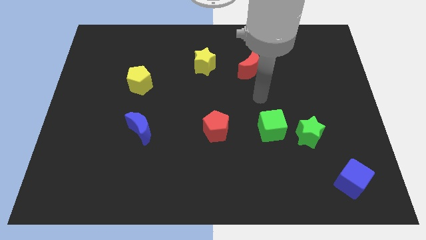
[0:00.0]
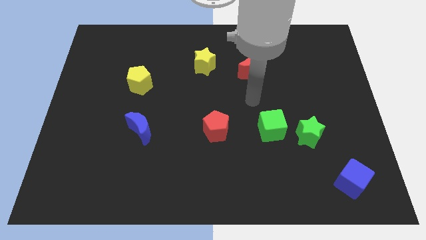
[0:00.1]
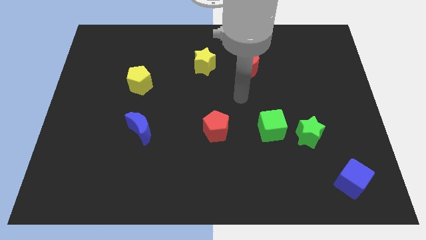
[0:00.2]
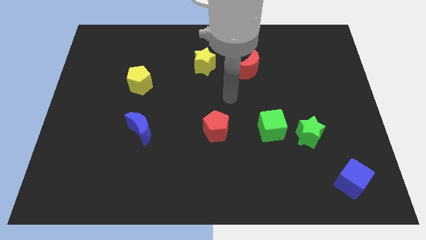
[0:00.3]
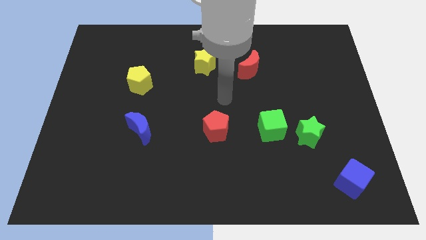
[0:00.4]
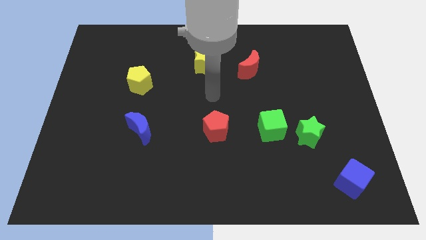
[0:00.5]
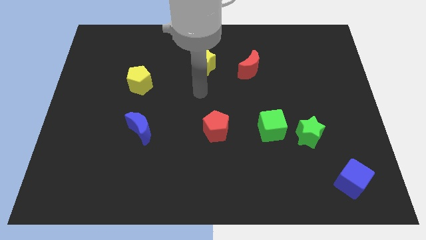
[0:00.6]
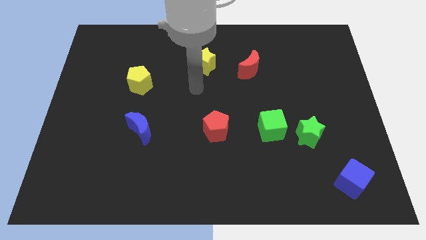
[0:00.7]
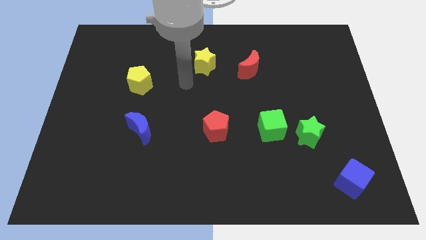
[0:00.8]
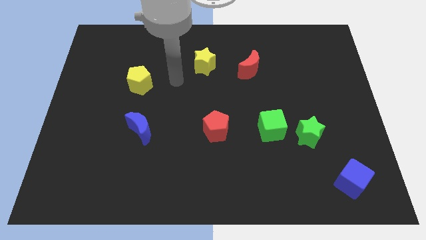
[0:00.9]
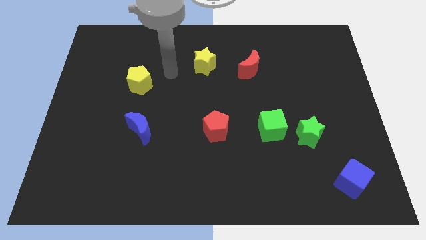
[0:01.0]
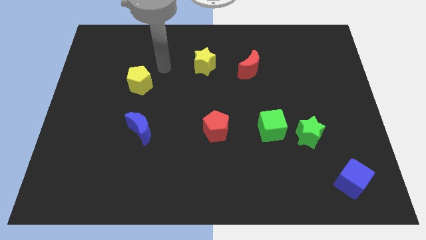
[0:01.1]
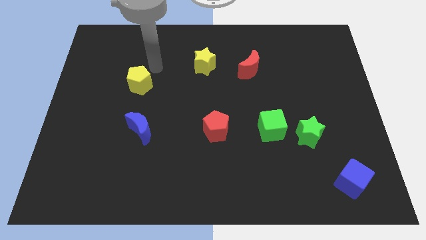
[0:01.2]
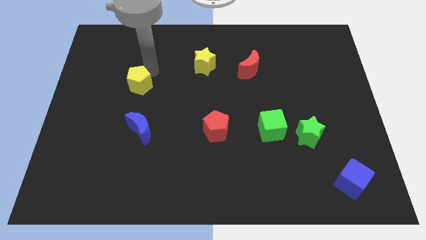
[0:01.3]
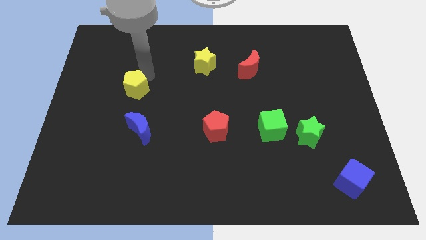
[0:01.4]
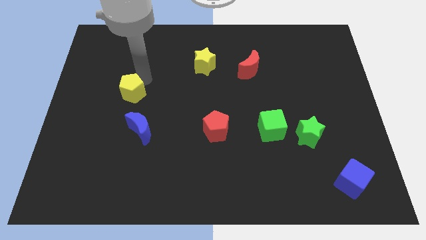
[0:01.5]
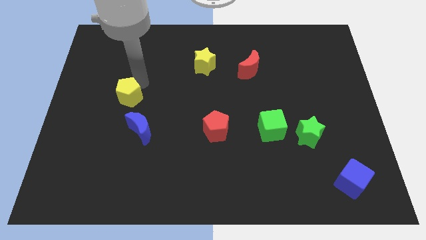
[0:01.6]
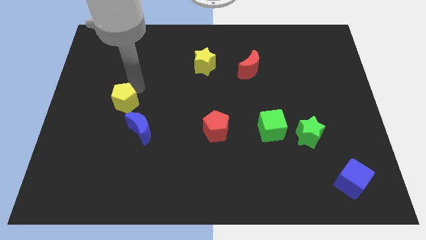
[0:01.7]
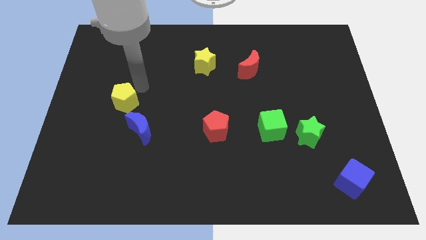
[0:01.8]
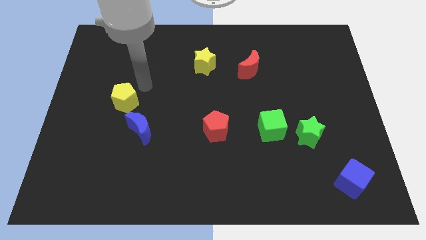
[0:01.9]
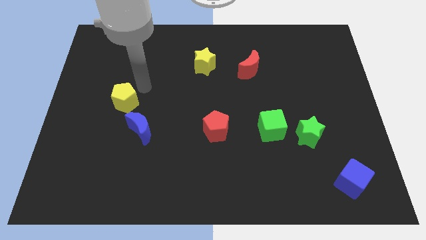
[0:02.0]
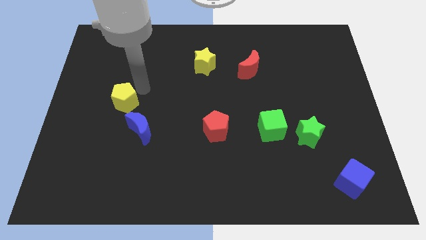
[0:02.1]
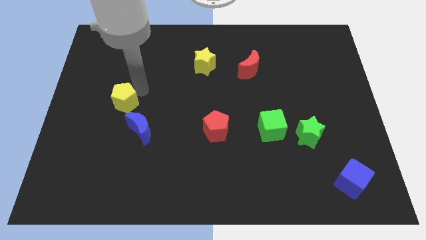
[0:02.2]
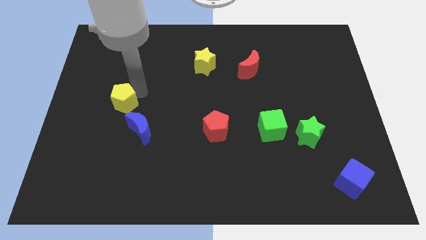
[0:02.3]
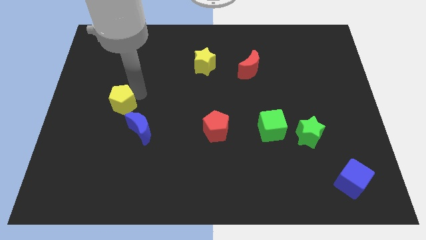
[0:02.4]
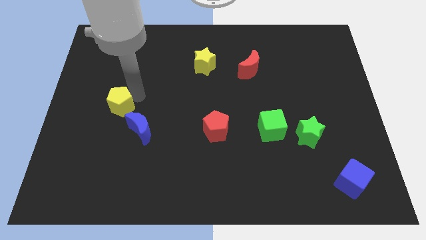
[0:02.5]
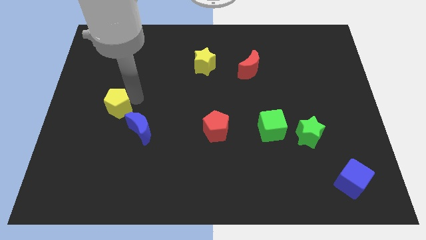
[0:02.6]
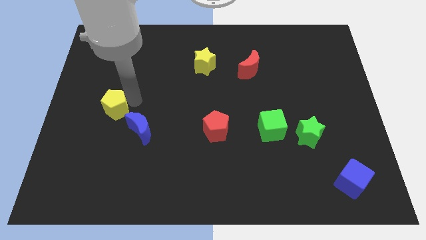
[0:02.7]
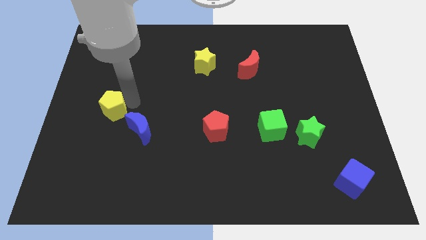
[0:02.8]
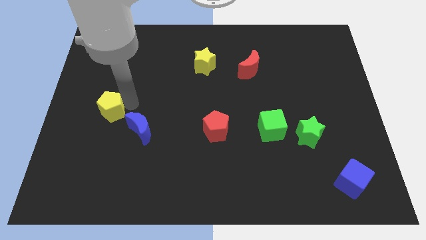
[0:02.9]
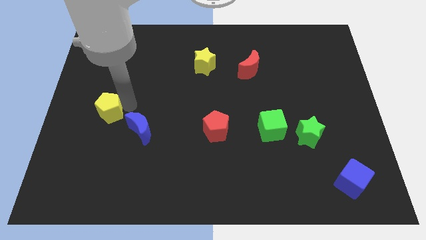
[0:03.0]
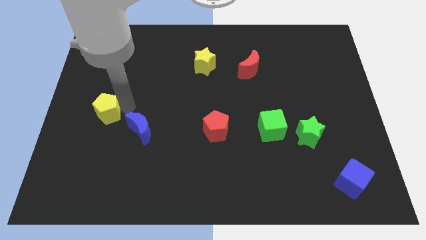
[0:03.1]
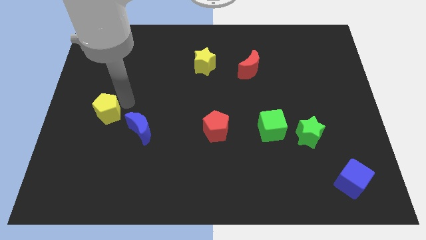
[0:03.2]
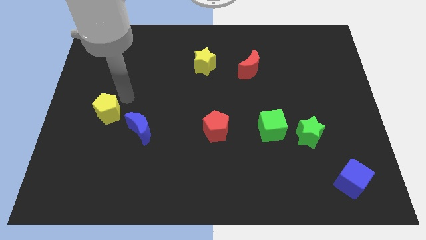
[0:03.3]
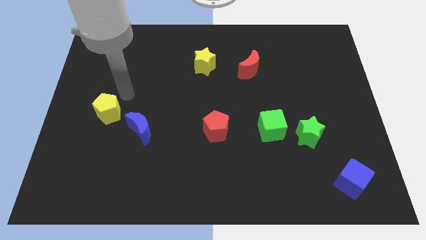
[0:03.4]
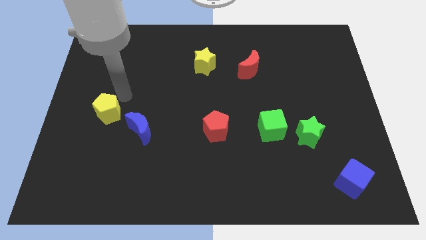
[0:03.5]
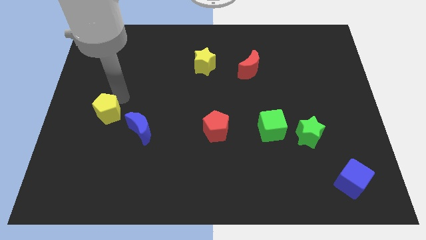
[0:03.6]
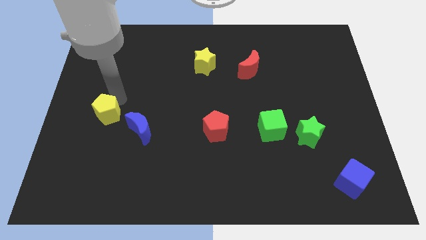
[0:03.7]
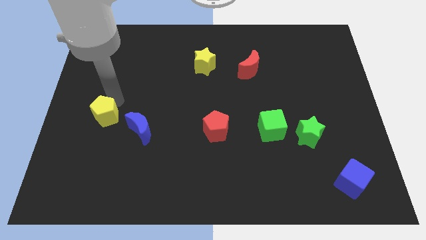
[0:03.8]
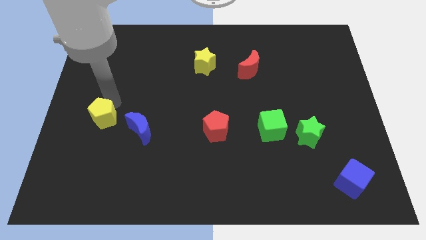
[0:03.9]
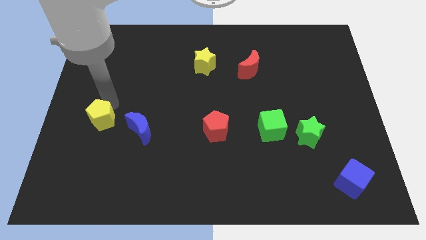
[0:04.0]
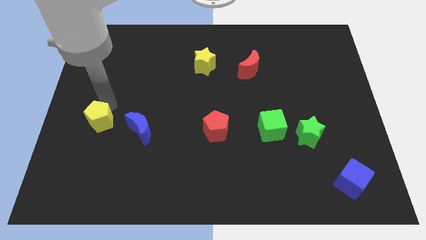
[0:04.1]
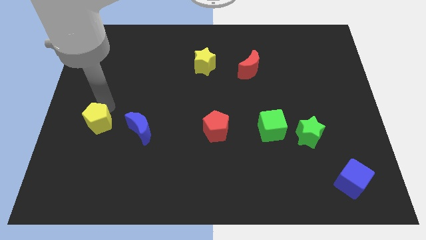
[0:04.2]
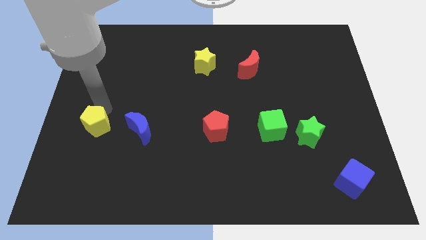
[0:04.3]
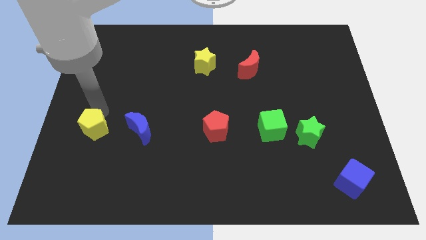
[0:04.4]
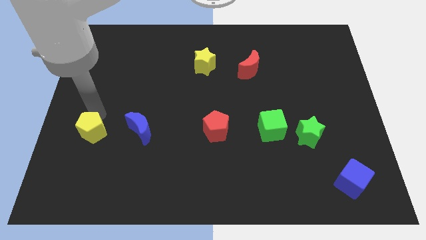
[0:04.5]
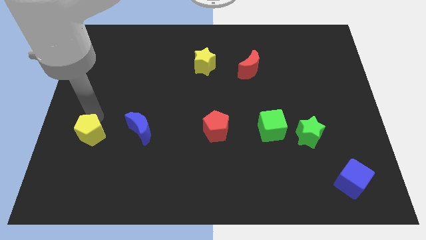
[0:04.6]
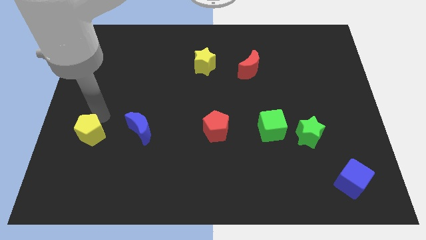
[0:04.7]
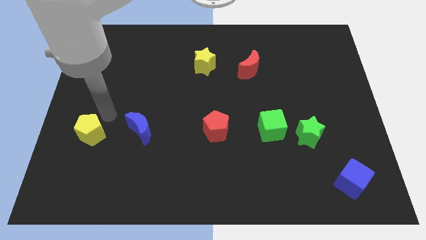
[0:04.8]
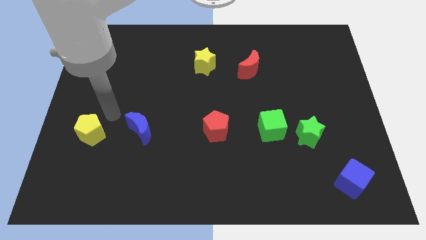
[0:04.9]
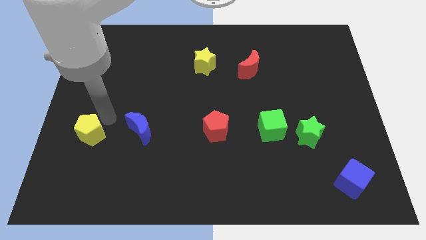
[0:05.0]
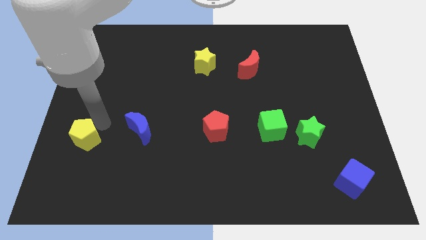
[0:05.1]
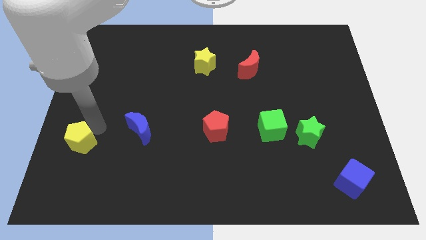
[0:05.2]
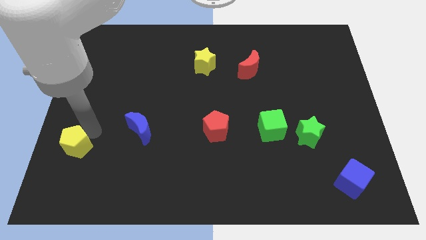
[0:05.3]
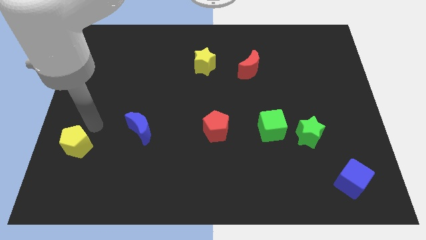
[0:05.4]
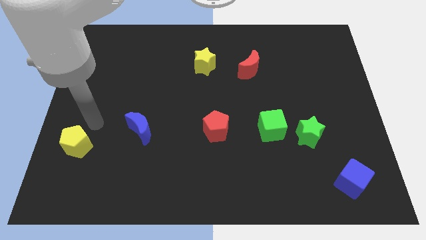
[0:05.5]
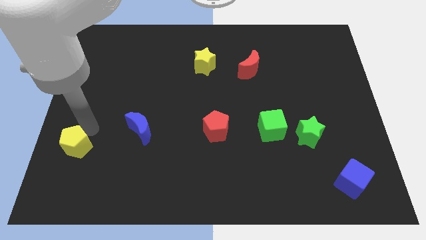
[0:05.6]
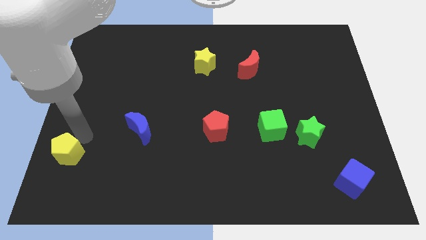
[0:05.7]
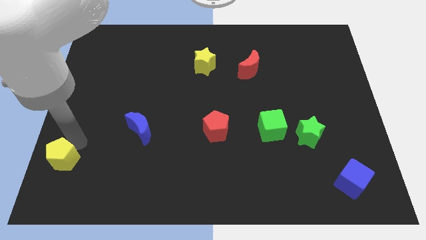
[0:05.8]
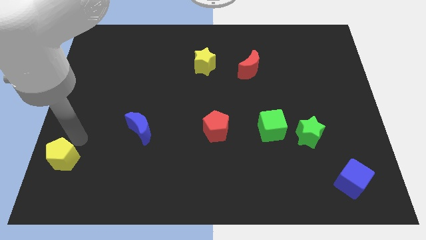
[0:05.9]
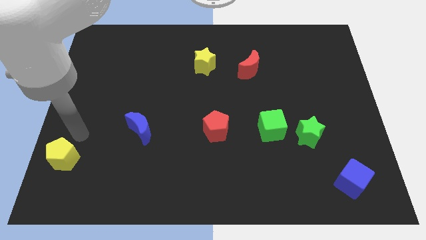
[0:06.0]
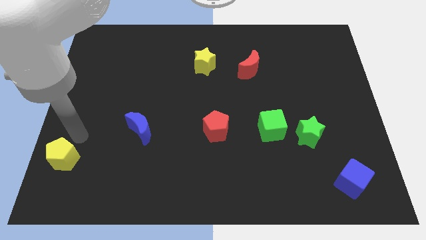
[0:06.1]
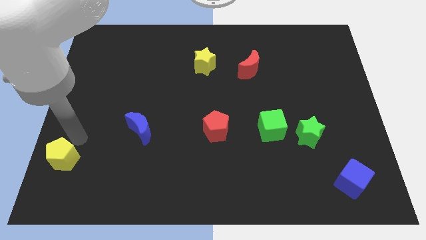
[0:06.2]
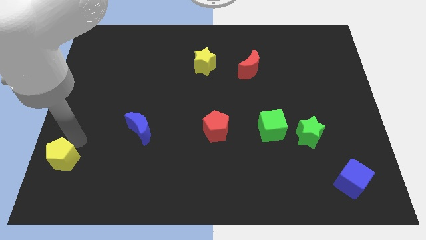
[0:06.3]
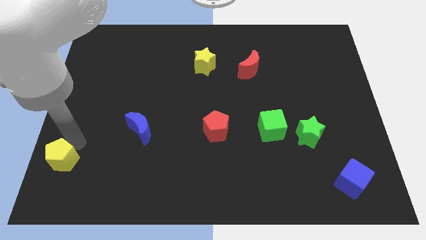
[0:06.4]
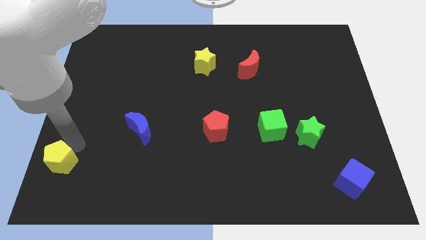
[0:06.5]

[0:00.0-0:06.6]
put the yellow pentagon to the bottom left corner

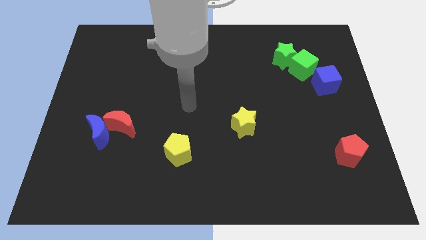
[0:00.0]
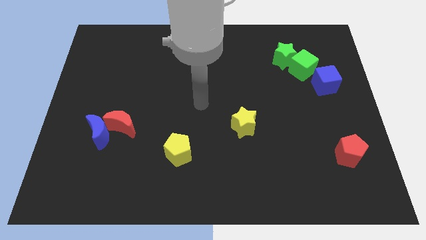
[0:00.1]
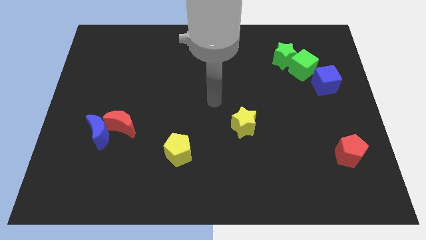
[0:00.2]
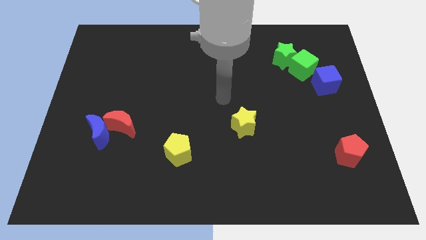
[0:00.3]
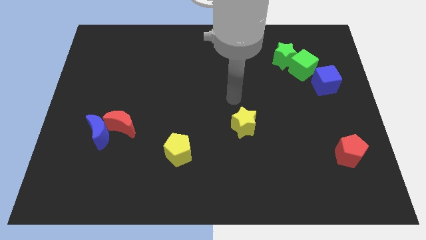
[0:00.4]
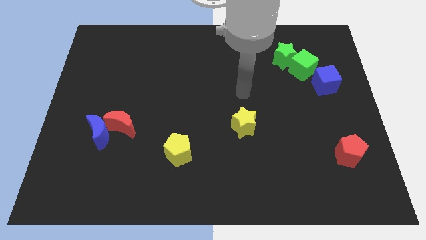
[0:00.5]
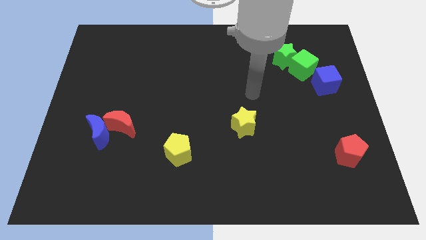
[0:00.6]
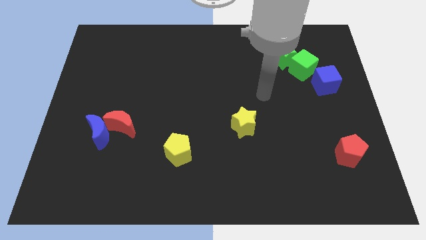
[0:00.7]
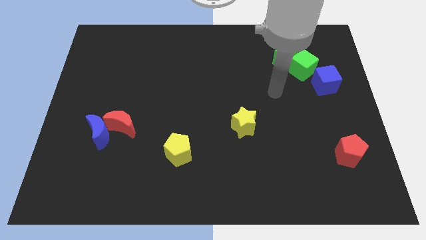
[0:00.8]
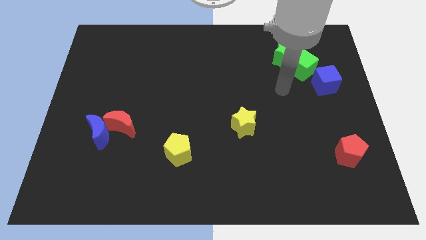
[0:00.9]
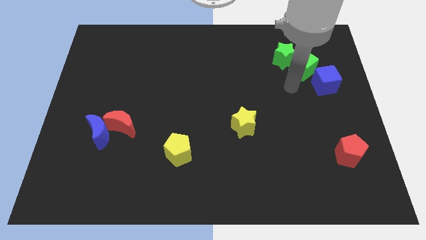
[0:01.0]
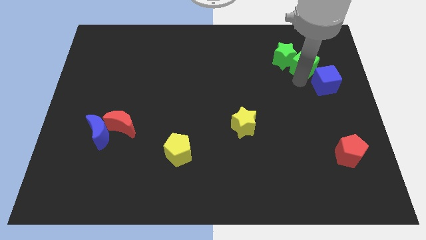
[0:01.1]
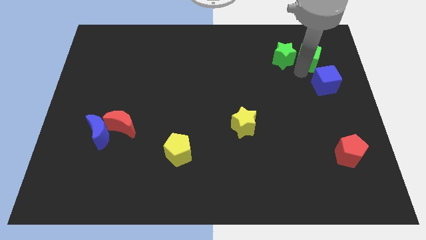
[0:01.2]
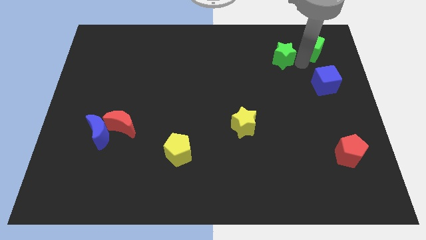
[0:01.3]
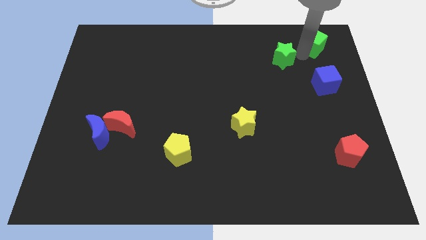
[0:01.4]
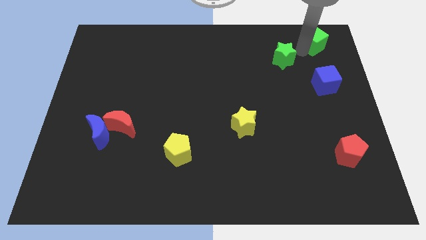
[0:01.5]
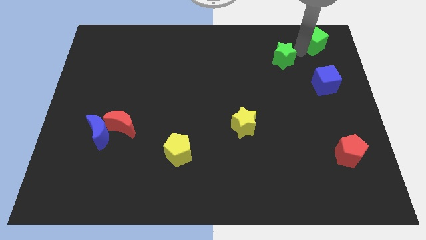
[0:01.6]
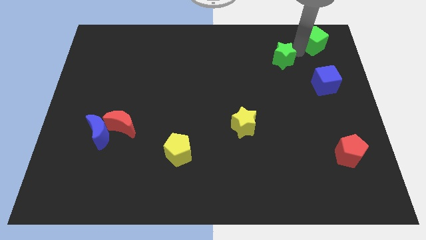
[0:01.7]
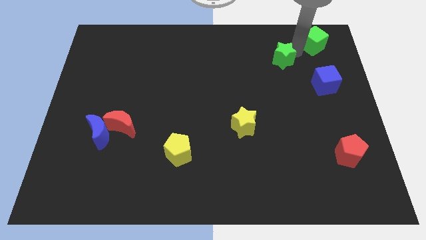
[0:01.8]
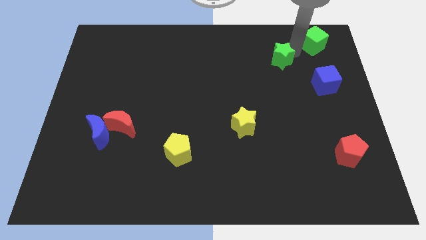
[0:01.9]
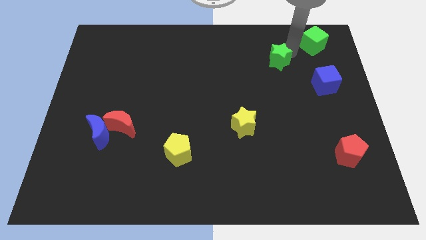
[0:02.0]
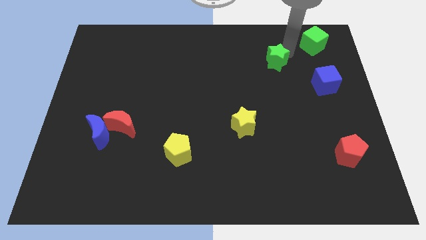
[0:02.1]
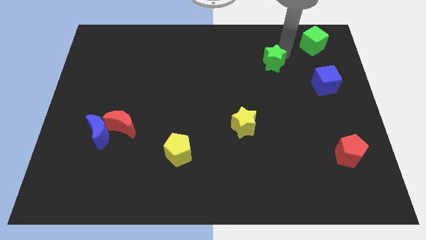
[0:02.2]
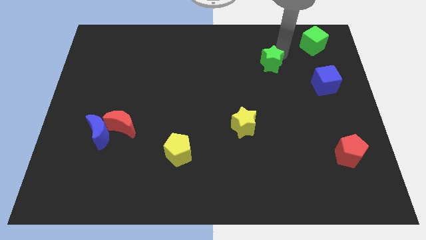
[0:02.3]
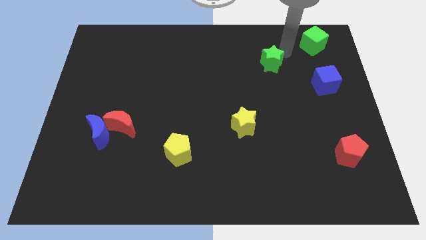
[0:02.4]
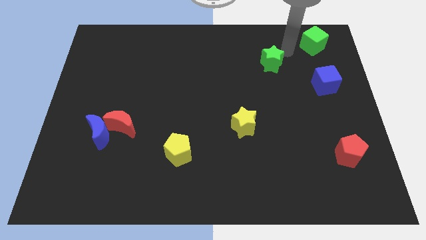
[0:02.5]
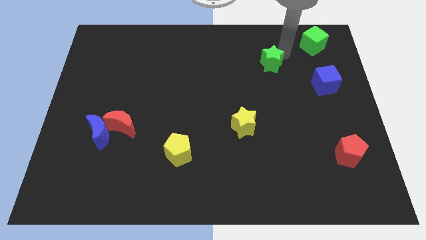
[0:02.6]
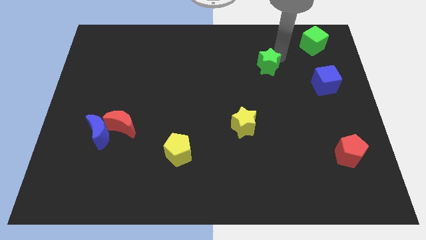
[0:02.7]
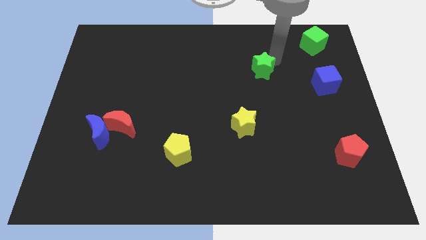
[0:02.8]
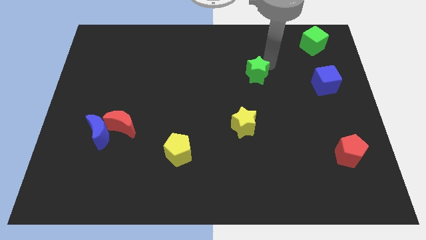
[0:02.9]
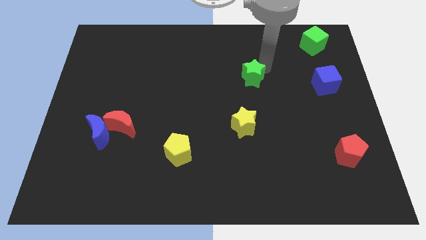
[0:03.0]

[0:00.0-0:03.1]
put the green star to the center
